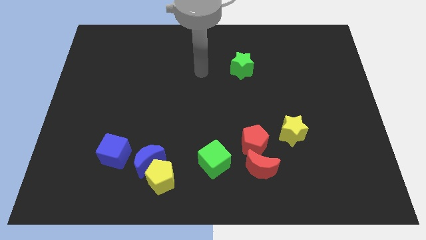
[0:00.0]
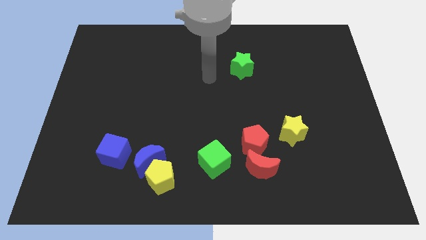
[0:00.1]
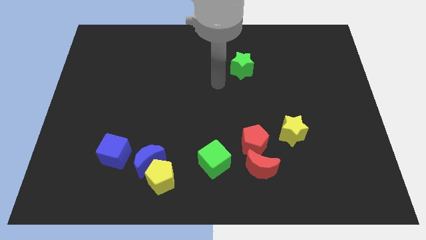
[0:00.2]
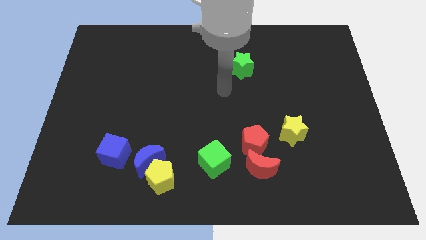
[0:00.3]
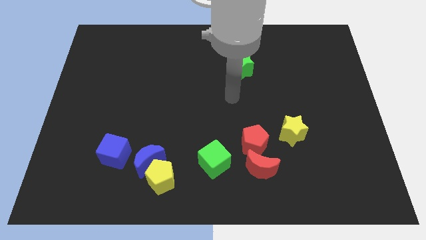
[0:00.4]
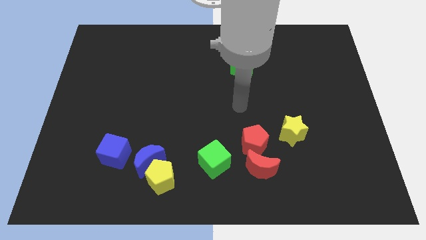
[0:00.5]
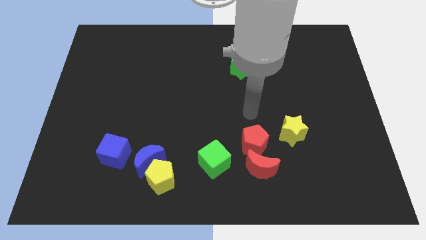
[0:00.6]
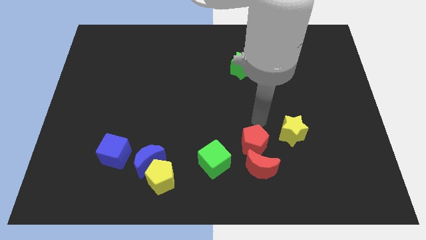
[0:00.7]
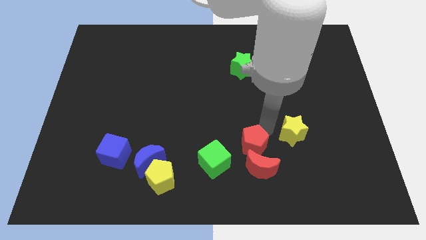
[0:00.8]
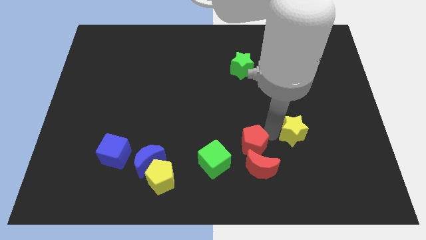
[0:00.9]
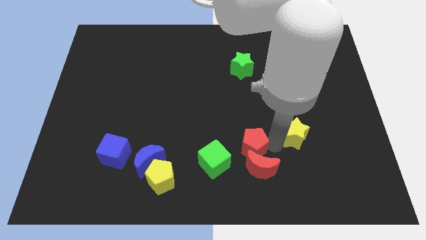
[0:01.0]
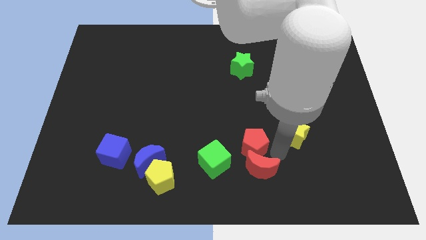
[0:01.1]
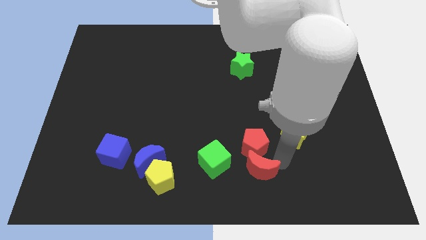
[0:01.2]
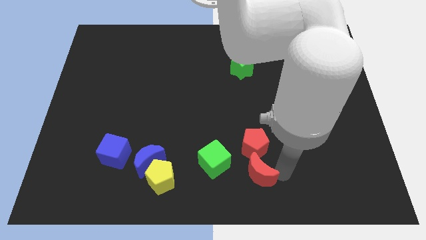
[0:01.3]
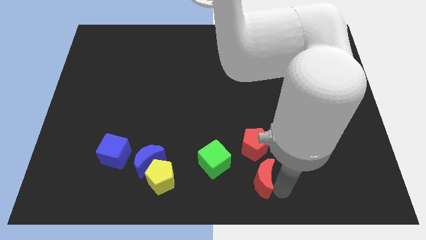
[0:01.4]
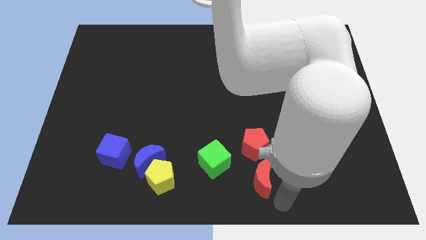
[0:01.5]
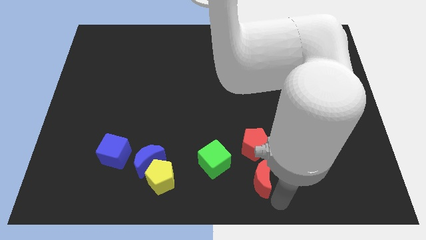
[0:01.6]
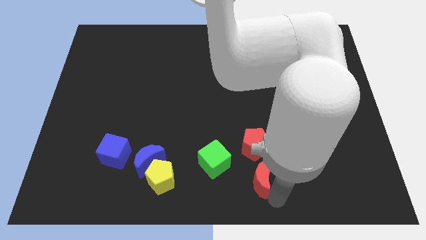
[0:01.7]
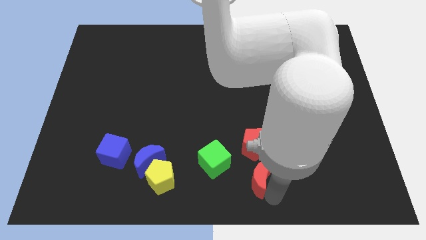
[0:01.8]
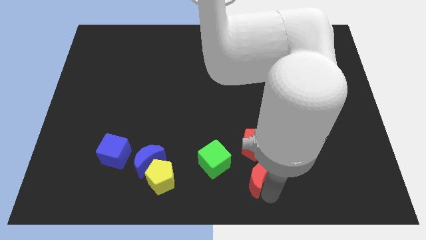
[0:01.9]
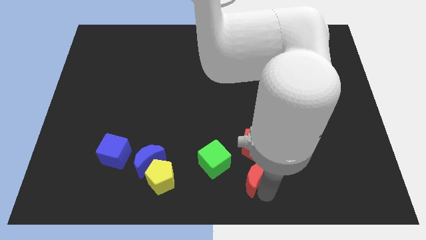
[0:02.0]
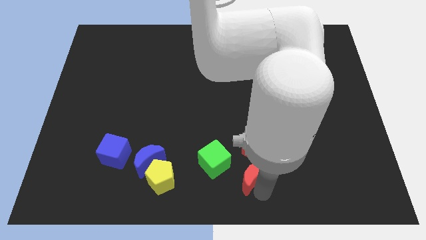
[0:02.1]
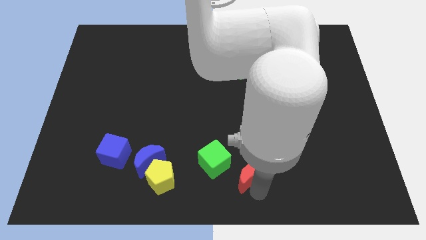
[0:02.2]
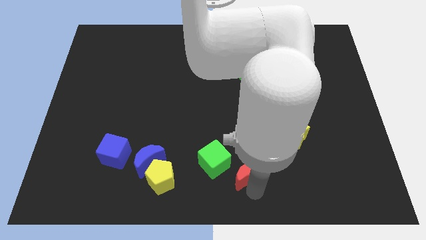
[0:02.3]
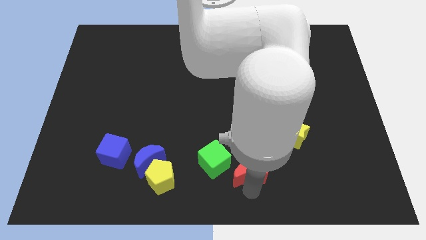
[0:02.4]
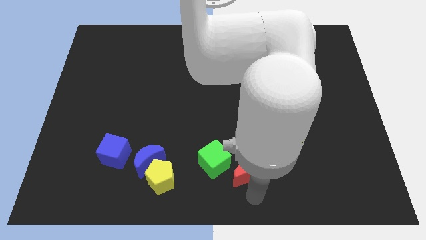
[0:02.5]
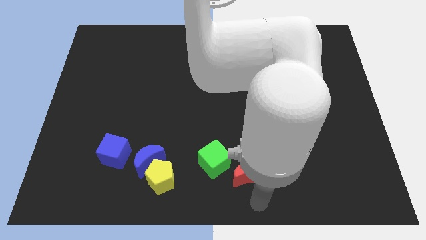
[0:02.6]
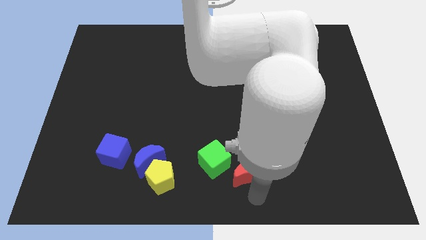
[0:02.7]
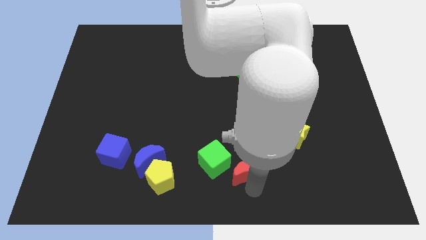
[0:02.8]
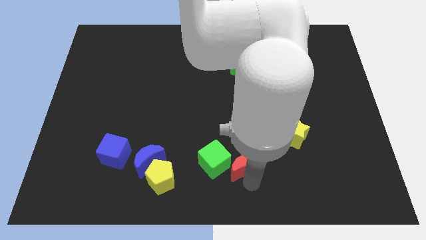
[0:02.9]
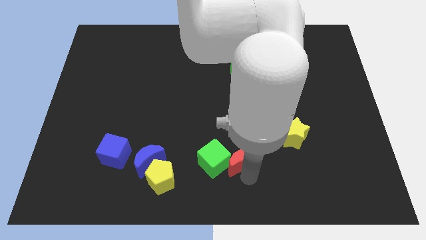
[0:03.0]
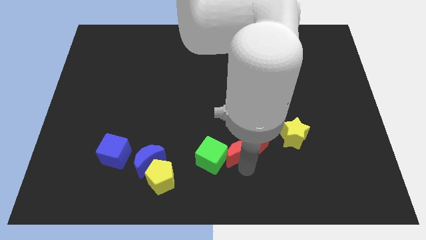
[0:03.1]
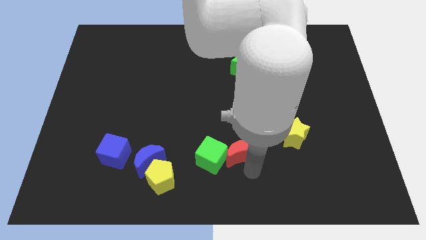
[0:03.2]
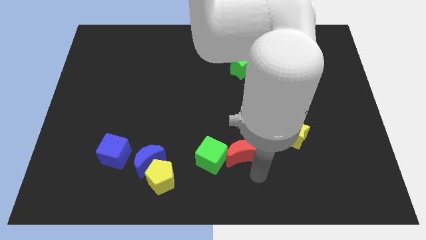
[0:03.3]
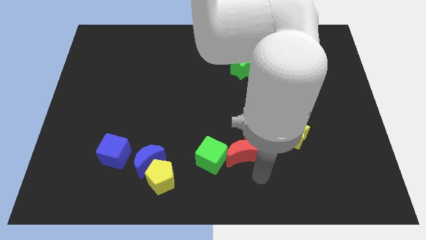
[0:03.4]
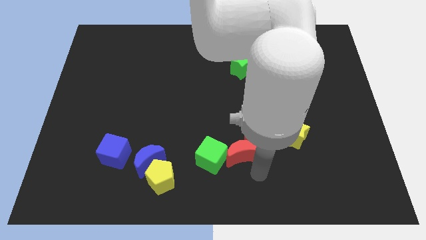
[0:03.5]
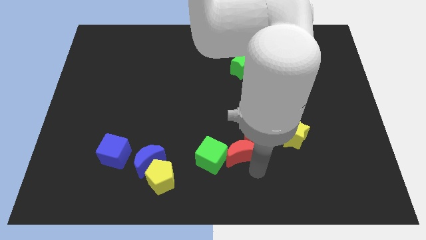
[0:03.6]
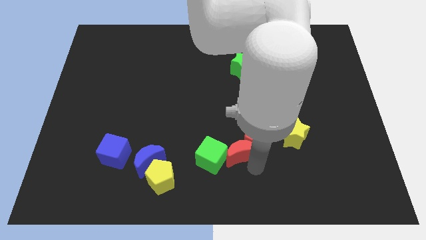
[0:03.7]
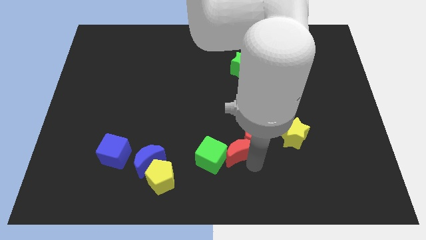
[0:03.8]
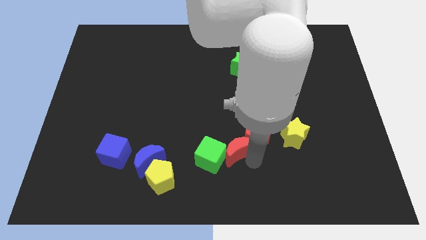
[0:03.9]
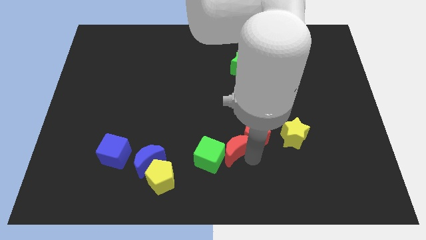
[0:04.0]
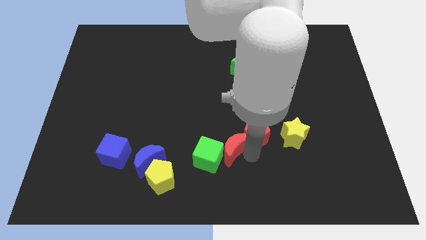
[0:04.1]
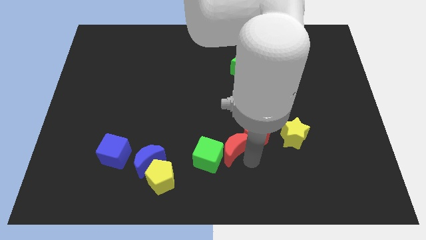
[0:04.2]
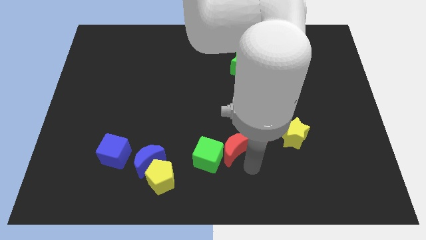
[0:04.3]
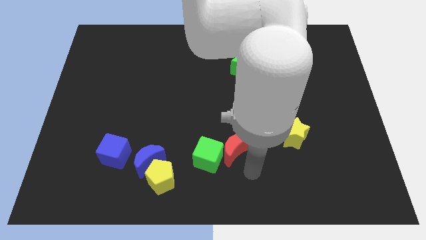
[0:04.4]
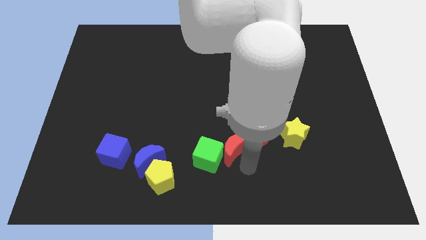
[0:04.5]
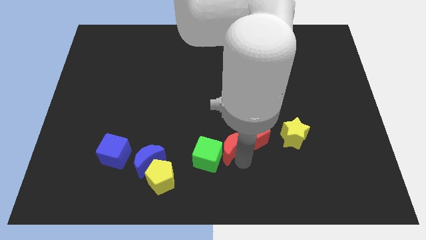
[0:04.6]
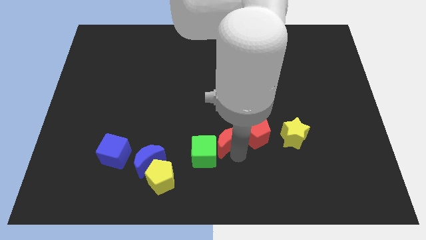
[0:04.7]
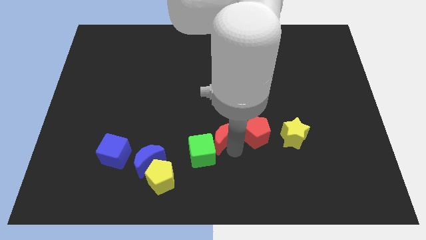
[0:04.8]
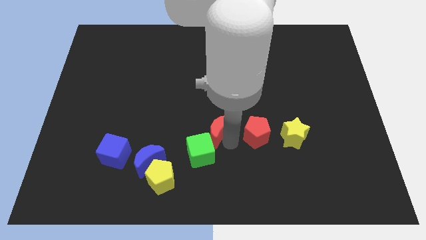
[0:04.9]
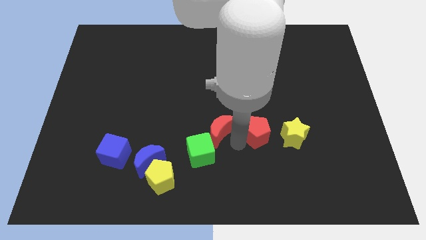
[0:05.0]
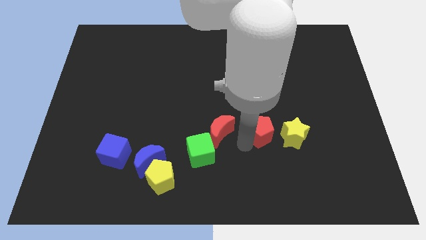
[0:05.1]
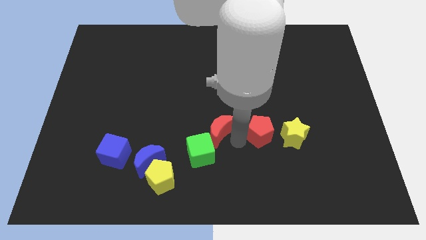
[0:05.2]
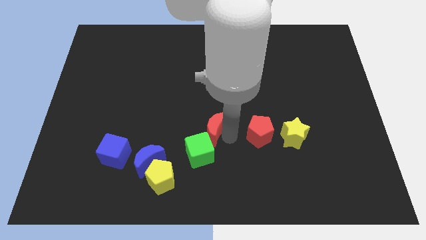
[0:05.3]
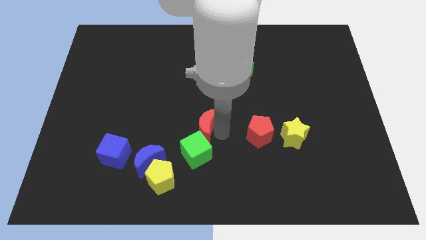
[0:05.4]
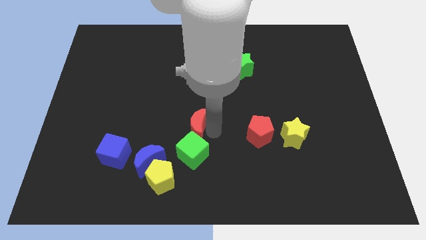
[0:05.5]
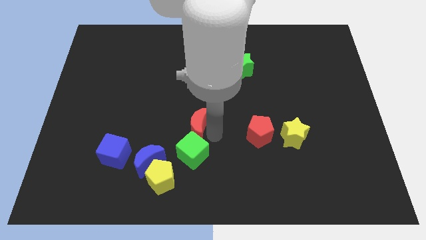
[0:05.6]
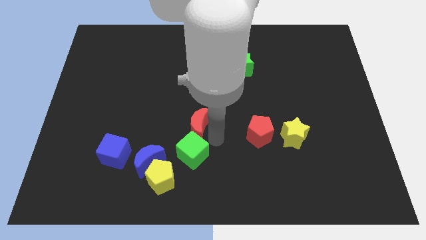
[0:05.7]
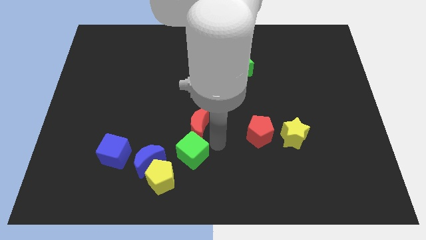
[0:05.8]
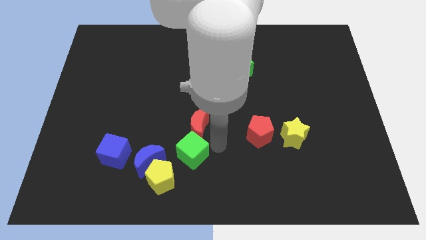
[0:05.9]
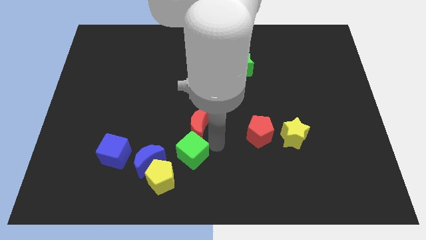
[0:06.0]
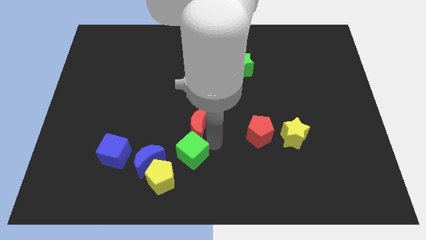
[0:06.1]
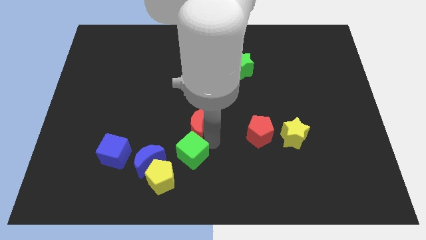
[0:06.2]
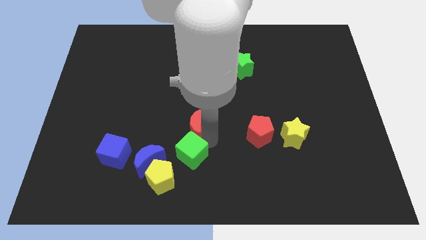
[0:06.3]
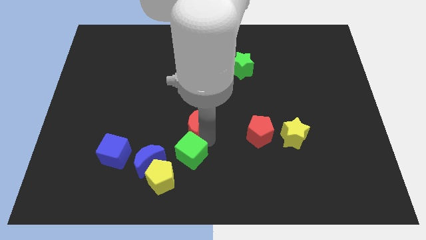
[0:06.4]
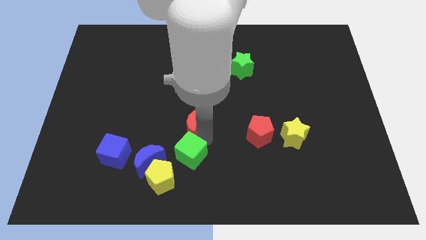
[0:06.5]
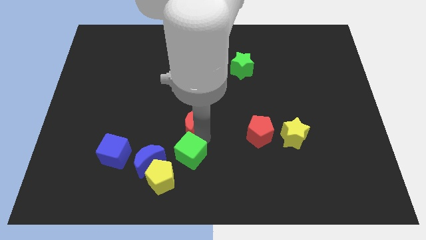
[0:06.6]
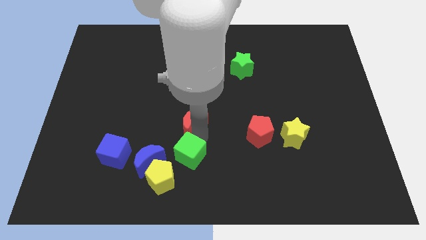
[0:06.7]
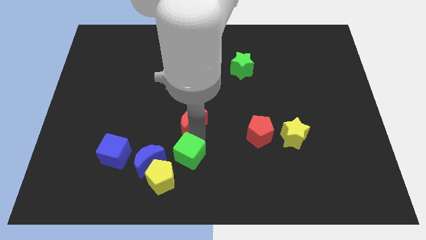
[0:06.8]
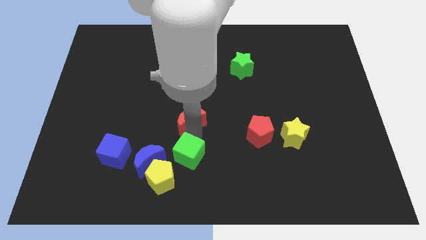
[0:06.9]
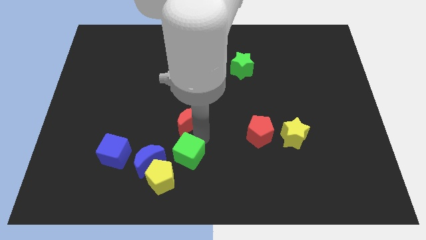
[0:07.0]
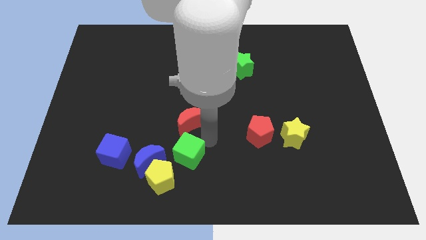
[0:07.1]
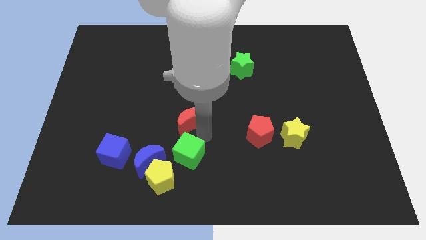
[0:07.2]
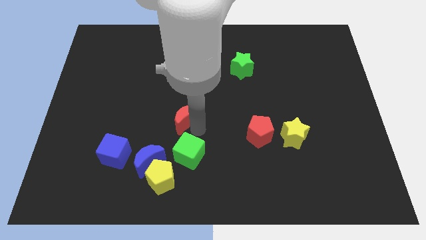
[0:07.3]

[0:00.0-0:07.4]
push the red moon up and to the left diagonally

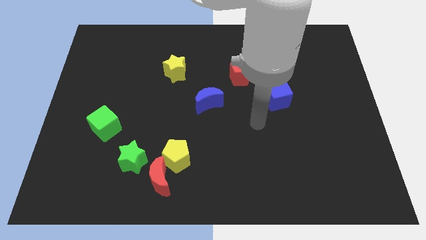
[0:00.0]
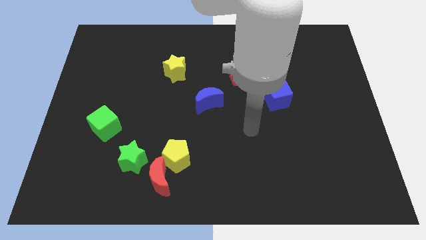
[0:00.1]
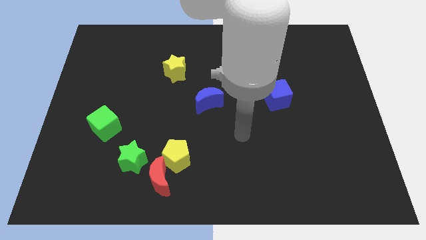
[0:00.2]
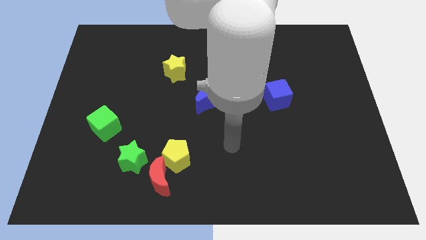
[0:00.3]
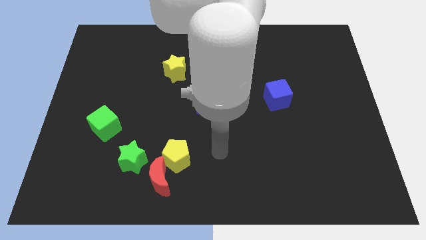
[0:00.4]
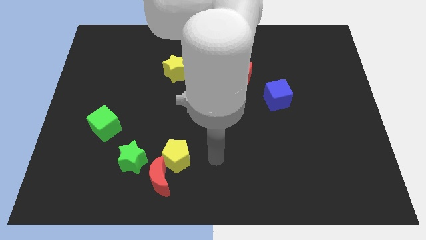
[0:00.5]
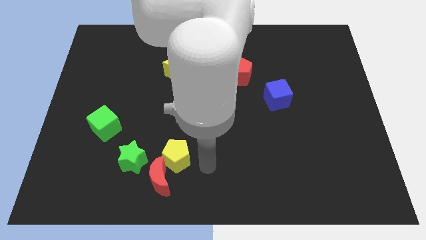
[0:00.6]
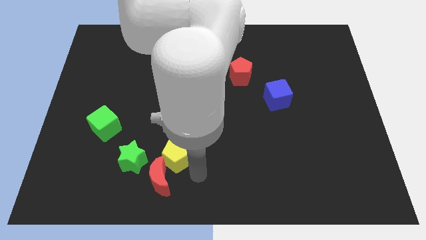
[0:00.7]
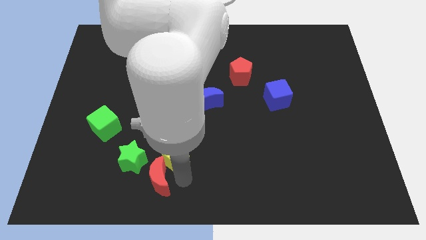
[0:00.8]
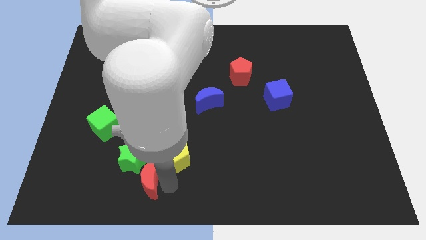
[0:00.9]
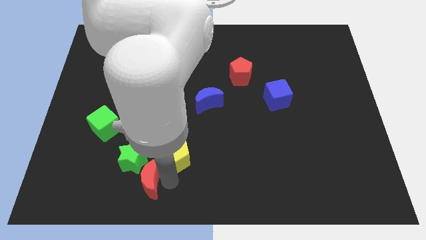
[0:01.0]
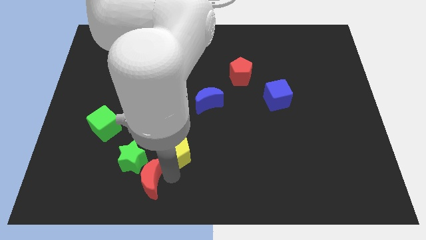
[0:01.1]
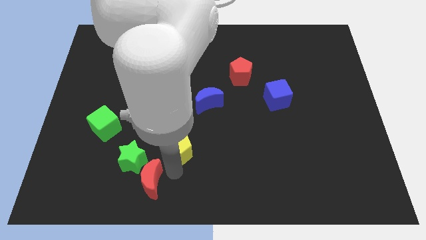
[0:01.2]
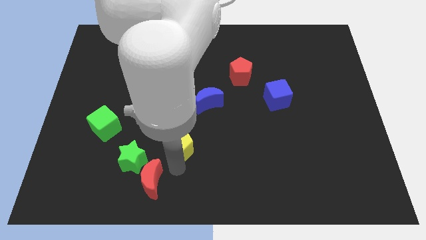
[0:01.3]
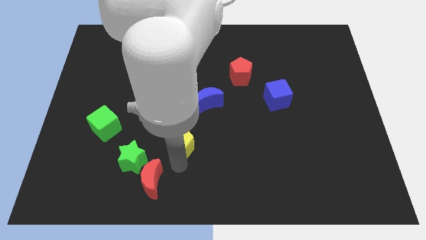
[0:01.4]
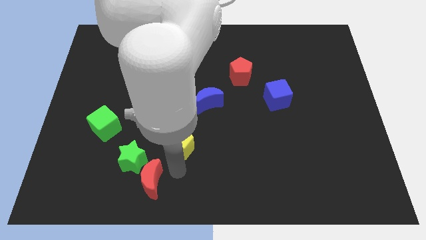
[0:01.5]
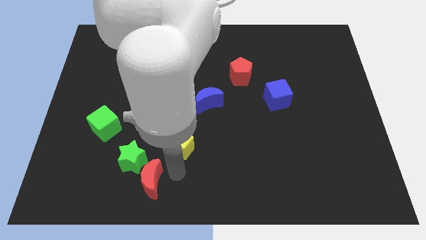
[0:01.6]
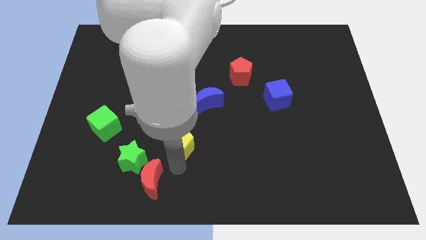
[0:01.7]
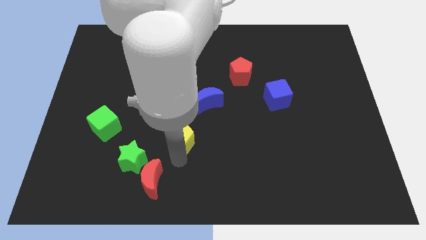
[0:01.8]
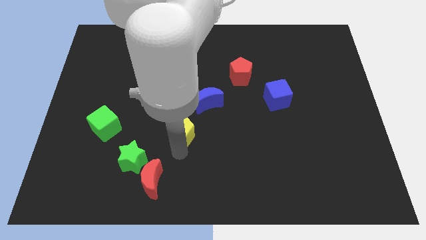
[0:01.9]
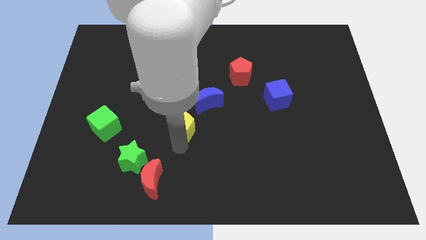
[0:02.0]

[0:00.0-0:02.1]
push the yellow pentagon somewhat up
